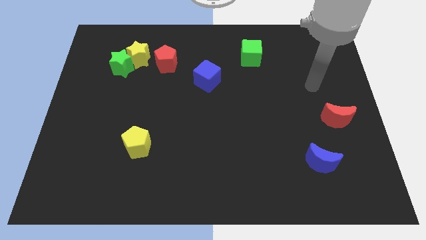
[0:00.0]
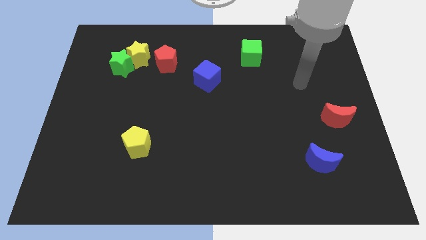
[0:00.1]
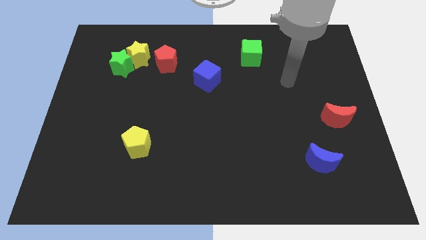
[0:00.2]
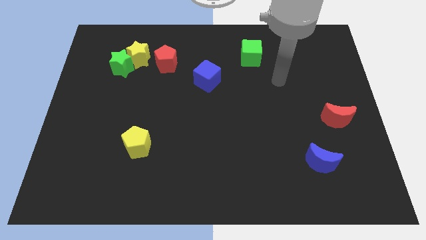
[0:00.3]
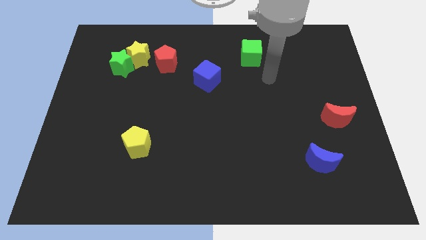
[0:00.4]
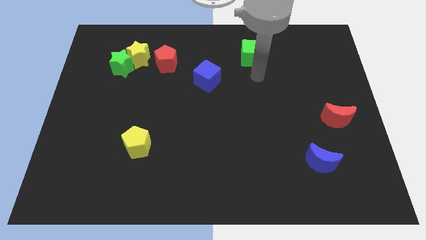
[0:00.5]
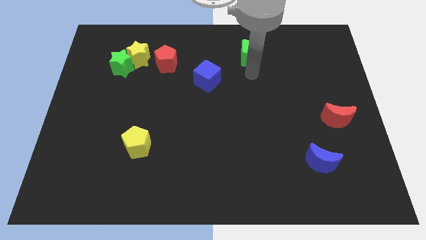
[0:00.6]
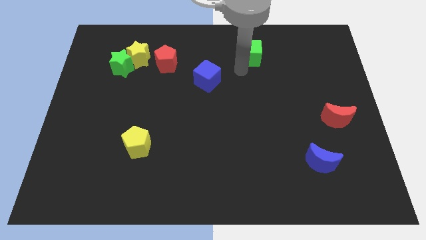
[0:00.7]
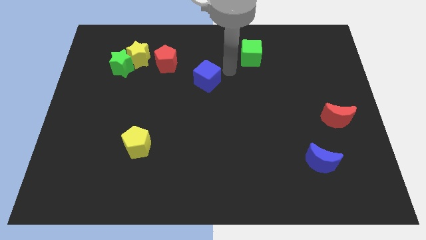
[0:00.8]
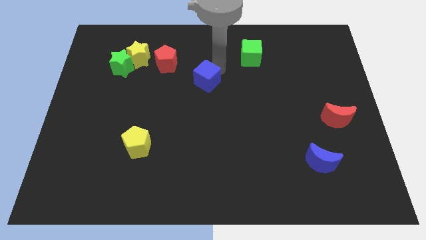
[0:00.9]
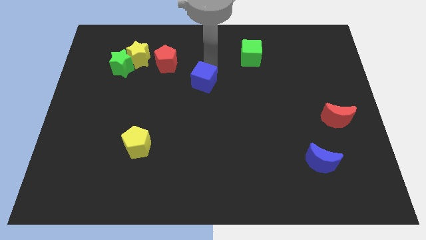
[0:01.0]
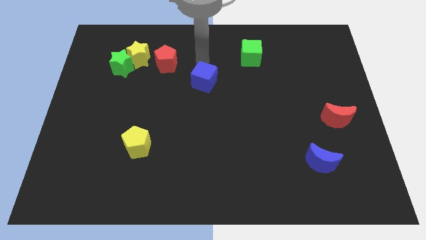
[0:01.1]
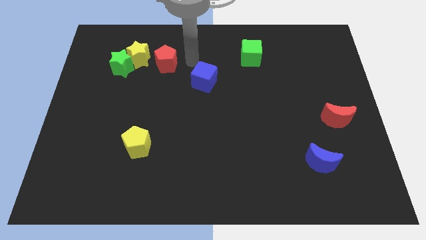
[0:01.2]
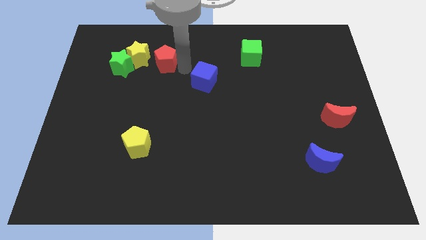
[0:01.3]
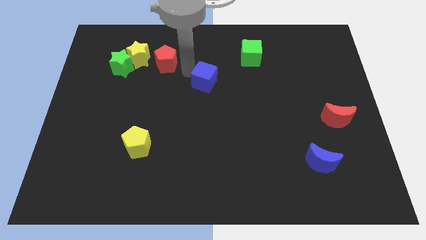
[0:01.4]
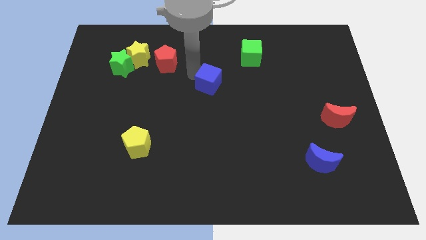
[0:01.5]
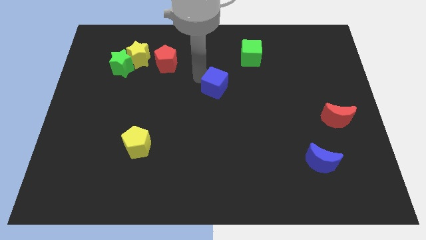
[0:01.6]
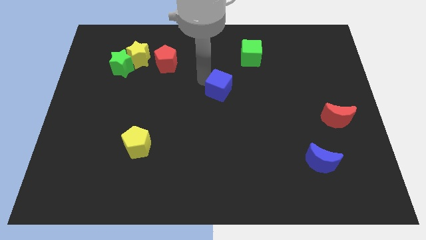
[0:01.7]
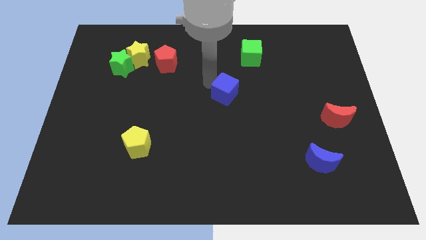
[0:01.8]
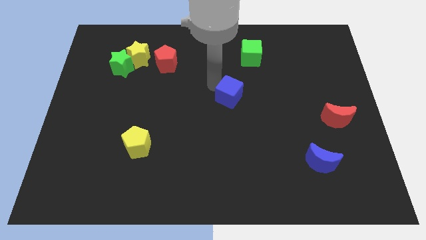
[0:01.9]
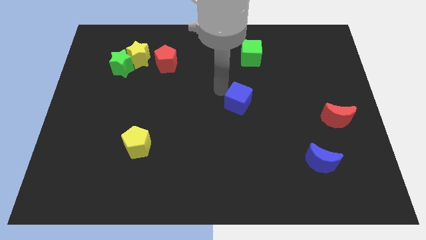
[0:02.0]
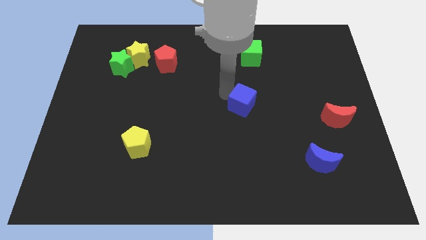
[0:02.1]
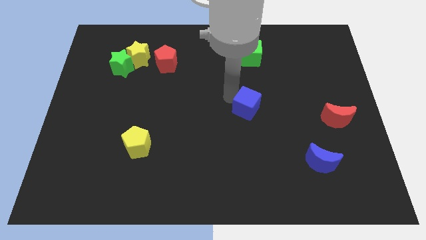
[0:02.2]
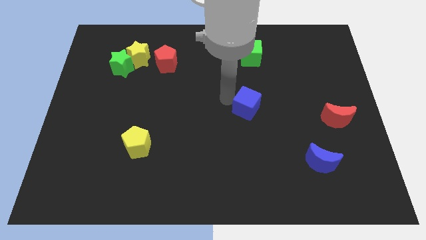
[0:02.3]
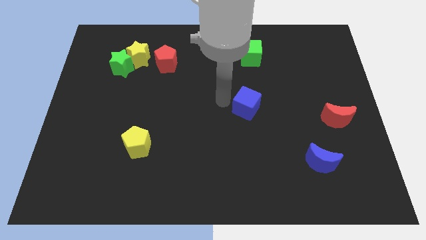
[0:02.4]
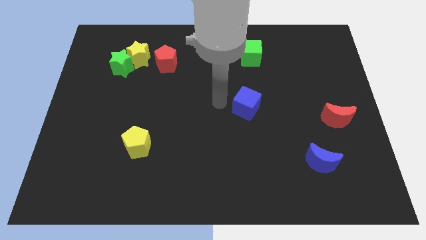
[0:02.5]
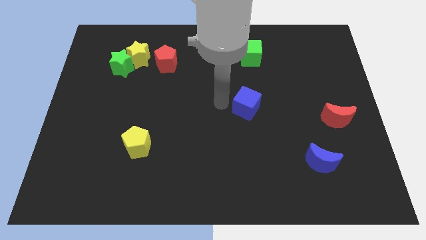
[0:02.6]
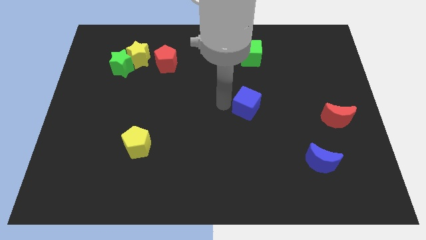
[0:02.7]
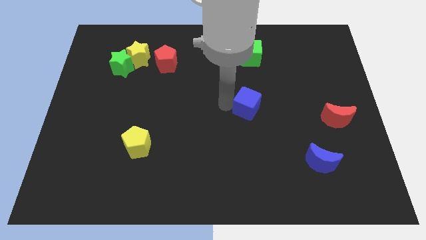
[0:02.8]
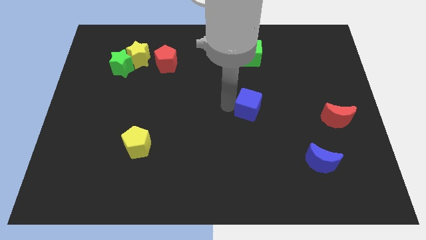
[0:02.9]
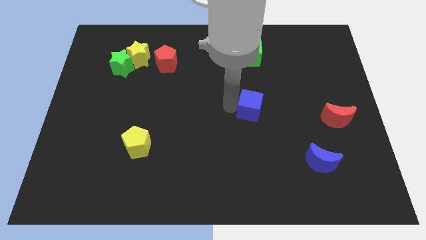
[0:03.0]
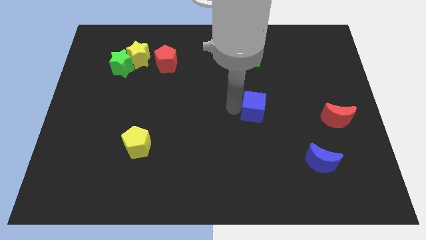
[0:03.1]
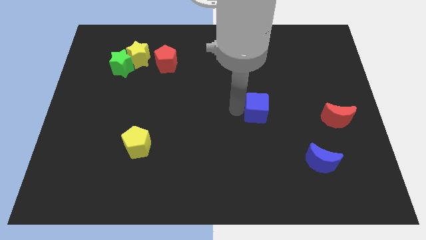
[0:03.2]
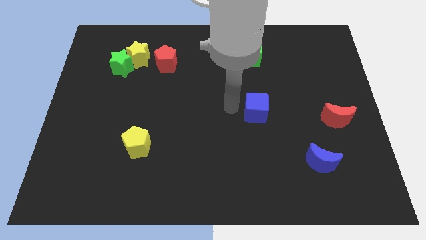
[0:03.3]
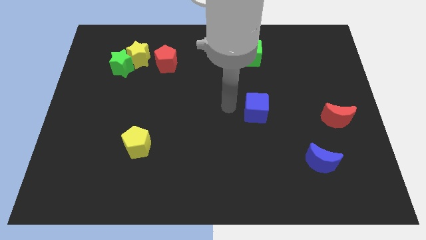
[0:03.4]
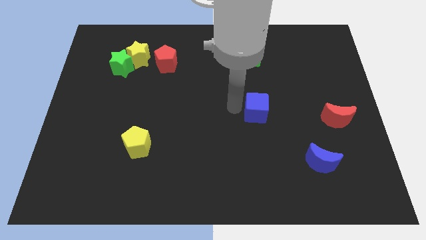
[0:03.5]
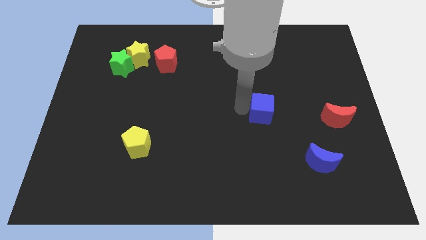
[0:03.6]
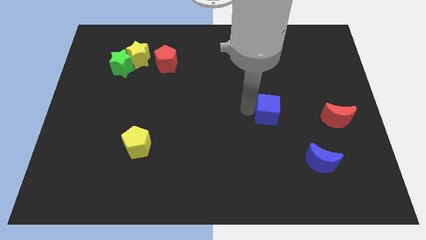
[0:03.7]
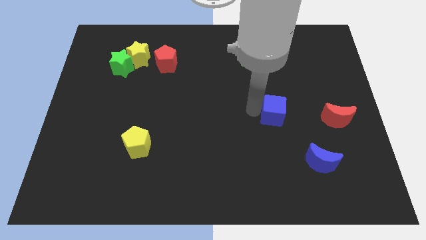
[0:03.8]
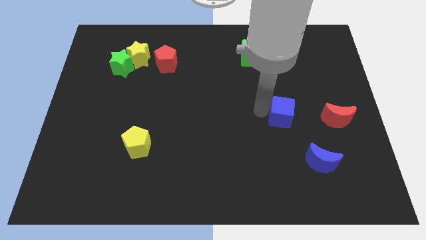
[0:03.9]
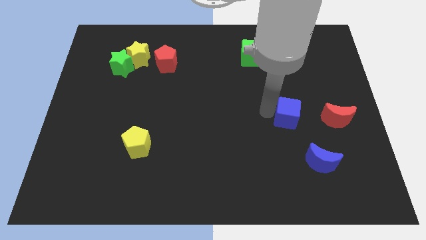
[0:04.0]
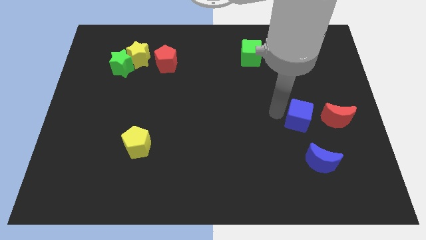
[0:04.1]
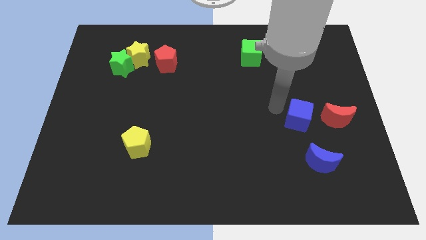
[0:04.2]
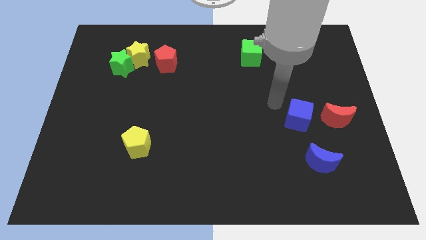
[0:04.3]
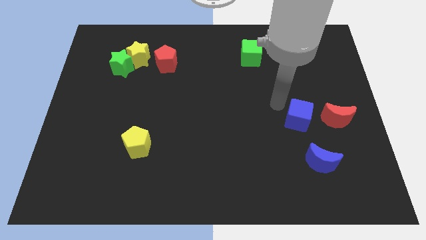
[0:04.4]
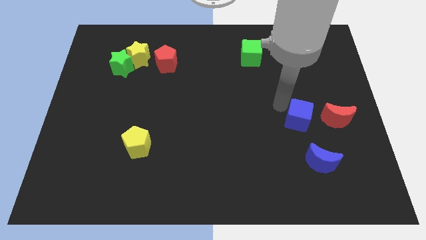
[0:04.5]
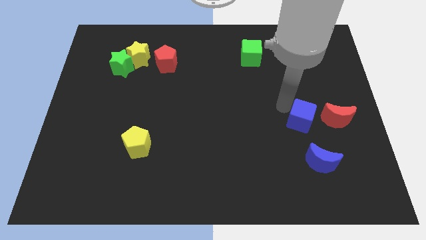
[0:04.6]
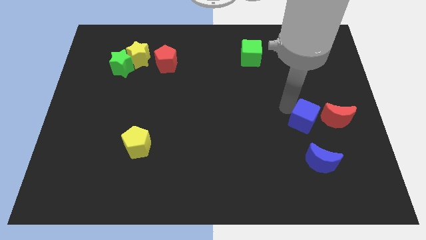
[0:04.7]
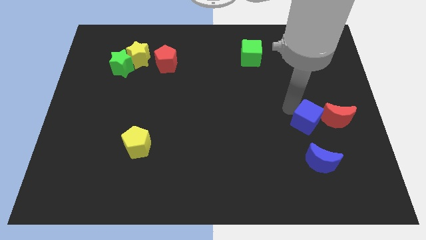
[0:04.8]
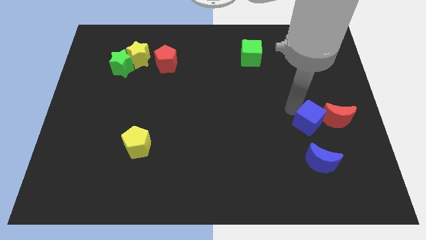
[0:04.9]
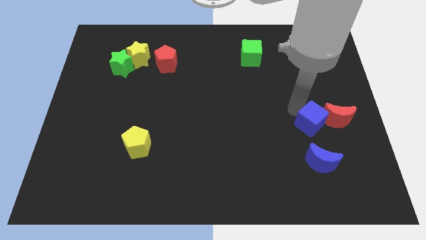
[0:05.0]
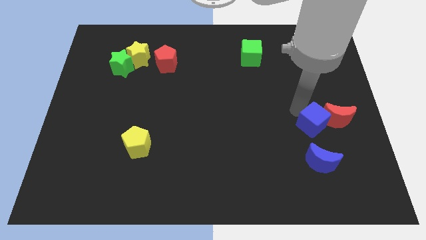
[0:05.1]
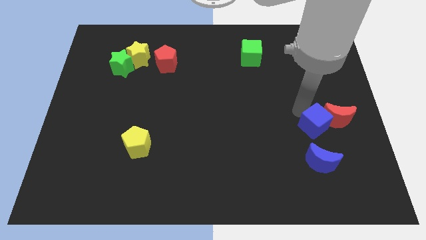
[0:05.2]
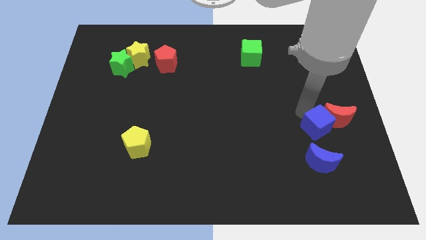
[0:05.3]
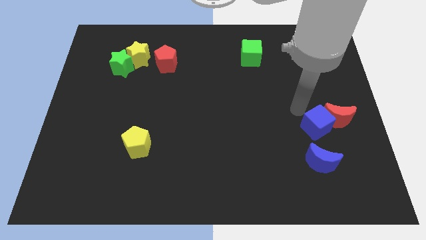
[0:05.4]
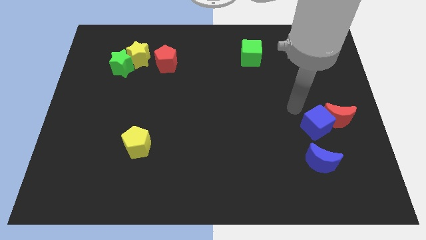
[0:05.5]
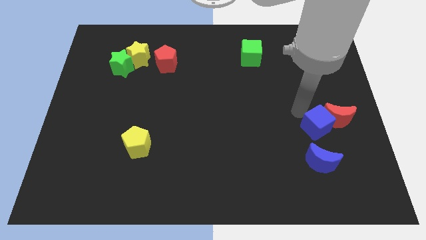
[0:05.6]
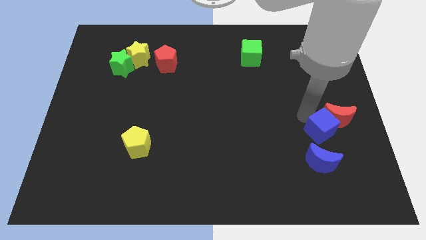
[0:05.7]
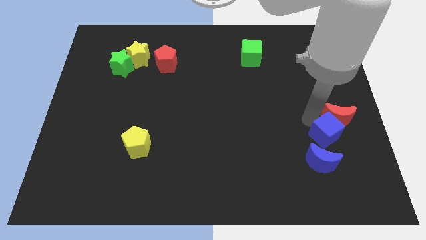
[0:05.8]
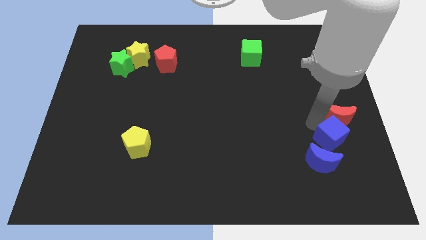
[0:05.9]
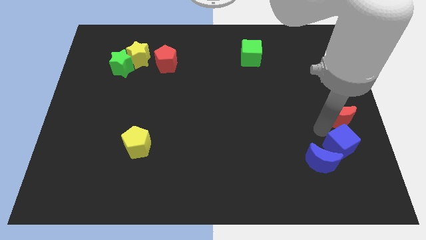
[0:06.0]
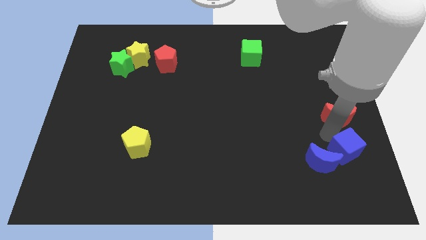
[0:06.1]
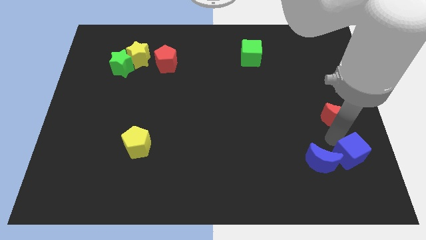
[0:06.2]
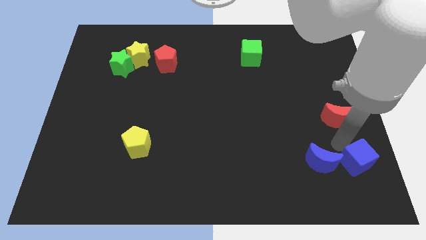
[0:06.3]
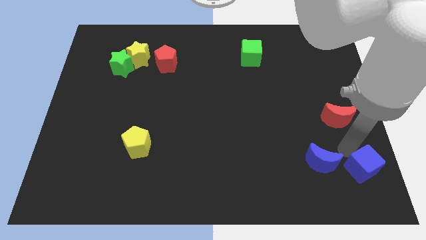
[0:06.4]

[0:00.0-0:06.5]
put the blue cube to the bottom right corner

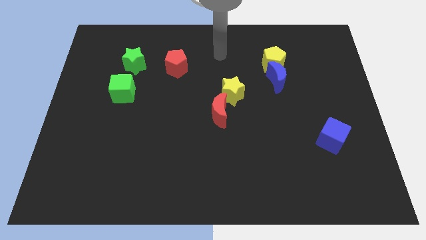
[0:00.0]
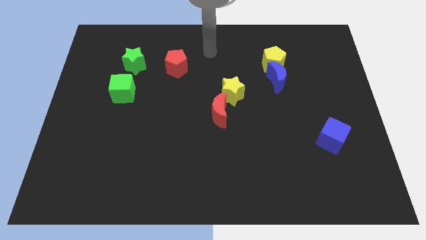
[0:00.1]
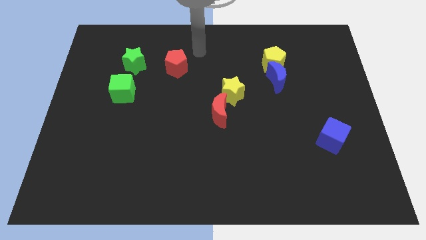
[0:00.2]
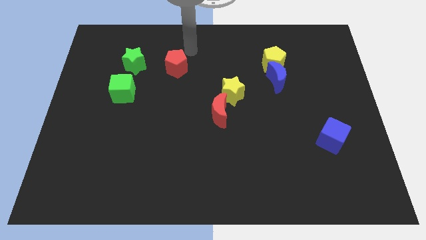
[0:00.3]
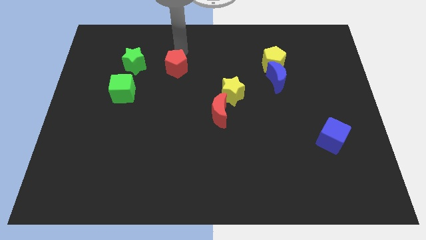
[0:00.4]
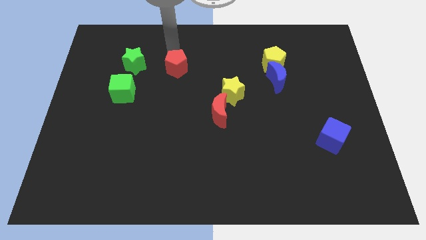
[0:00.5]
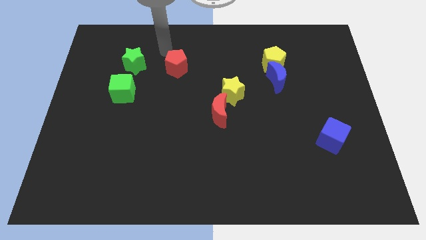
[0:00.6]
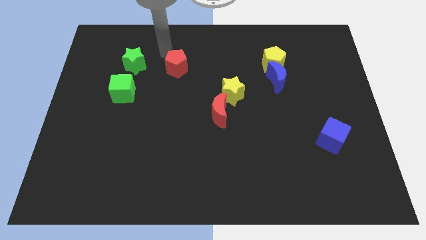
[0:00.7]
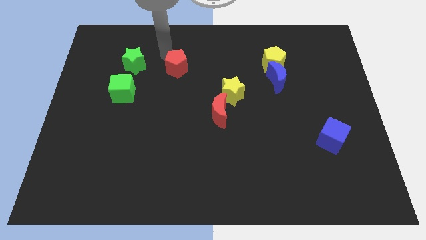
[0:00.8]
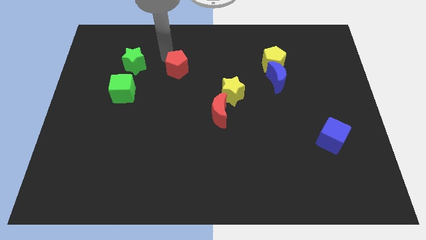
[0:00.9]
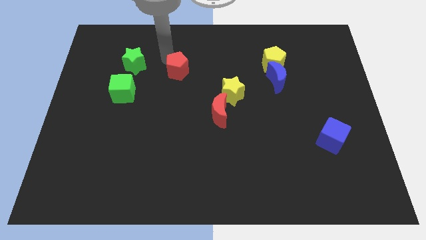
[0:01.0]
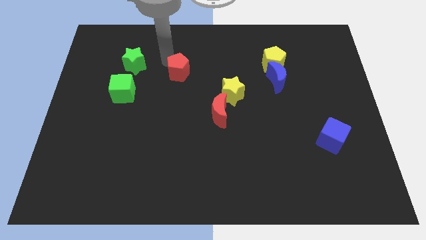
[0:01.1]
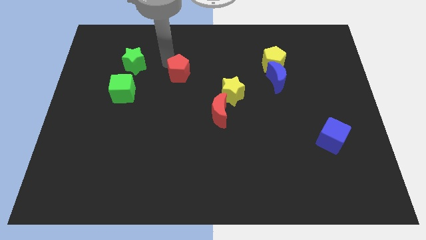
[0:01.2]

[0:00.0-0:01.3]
slide the red pentagon to the middle
